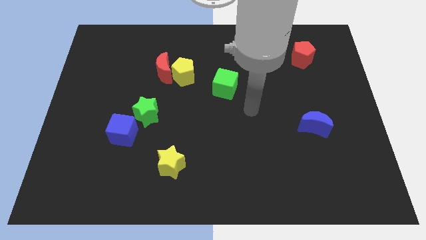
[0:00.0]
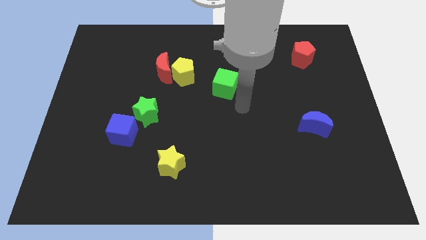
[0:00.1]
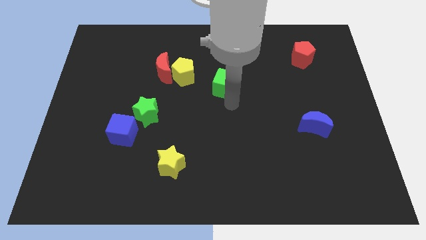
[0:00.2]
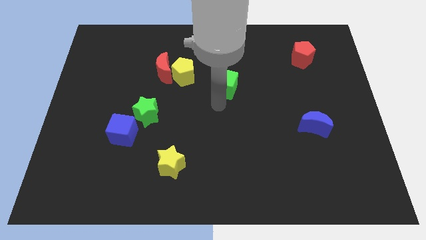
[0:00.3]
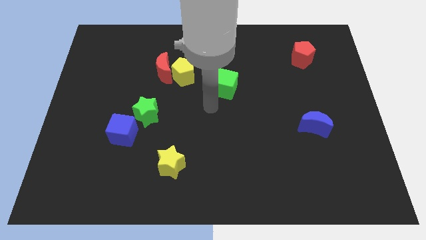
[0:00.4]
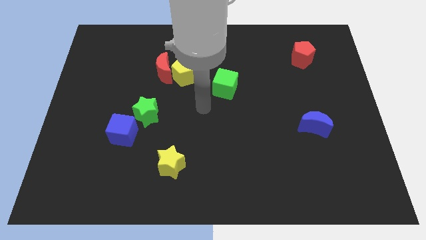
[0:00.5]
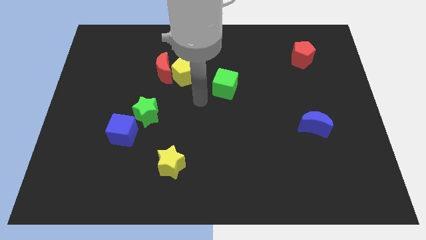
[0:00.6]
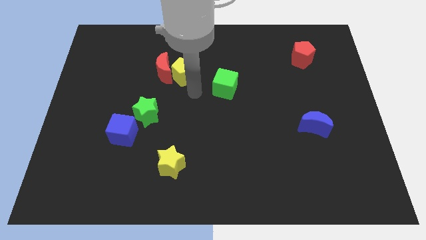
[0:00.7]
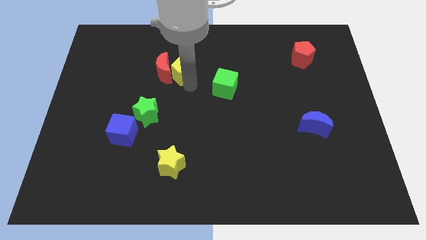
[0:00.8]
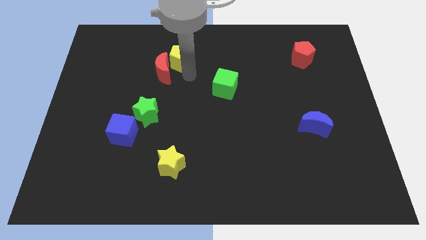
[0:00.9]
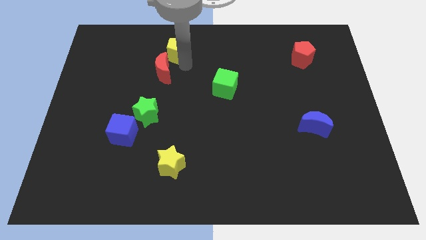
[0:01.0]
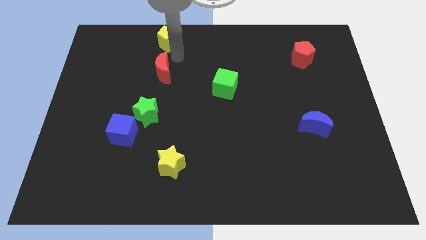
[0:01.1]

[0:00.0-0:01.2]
move the red moon away from the yellow pentagon

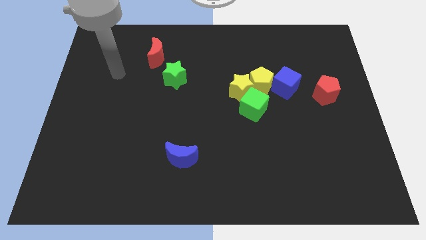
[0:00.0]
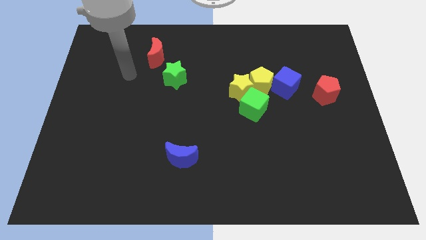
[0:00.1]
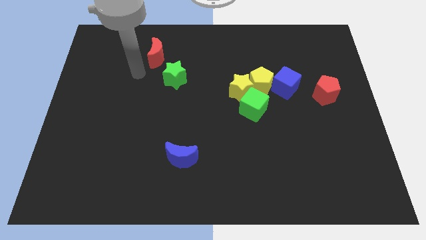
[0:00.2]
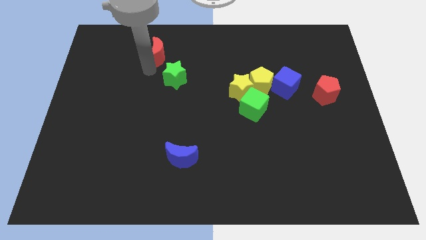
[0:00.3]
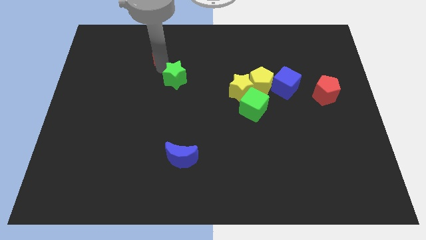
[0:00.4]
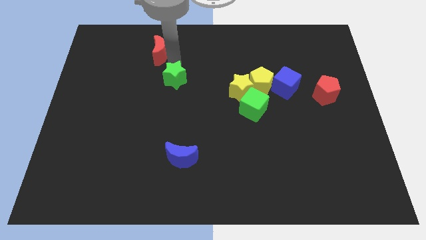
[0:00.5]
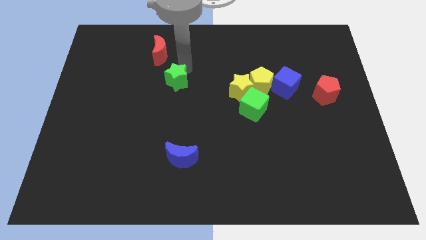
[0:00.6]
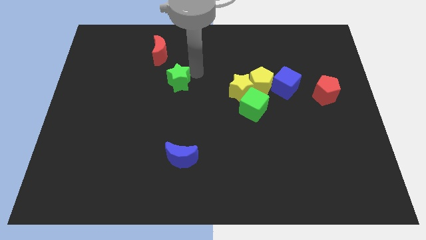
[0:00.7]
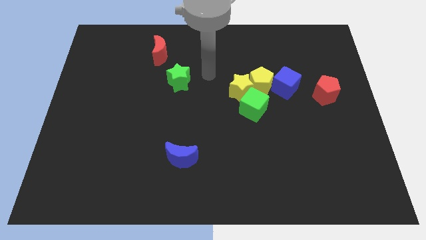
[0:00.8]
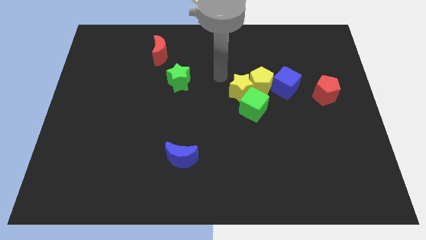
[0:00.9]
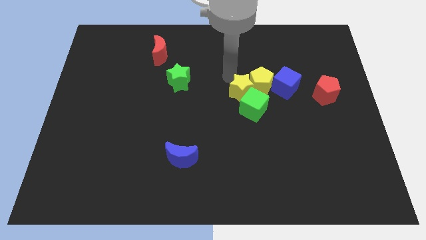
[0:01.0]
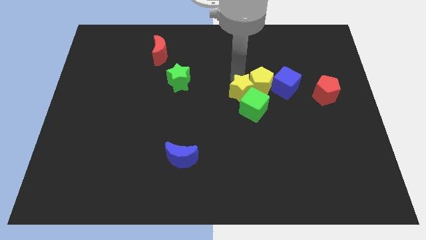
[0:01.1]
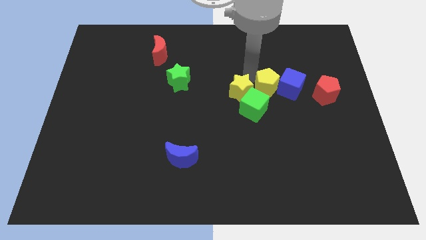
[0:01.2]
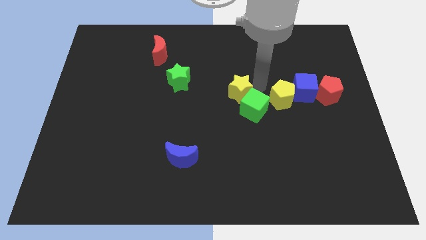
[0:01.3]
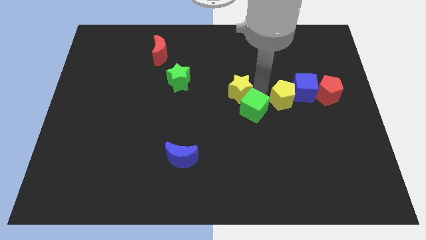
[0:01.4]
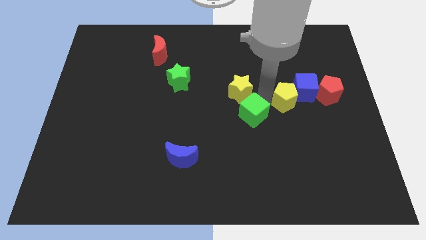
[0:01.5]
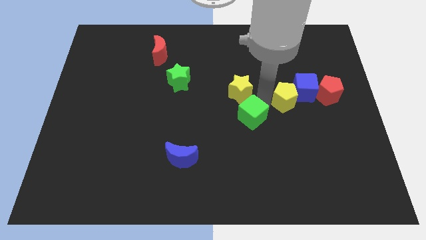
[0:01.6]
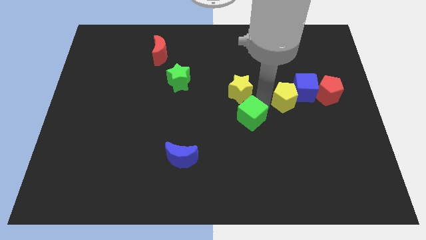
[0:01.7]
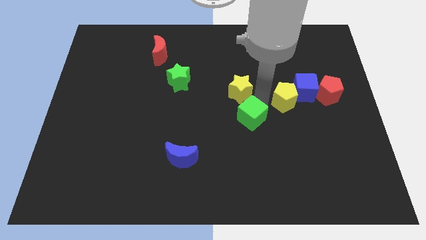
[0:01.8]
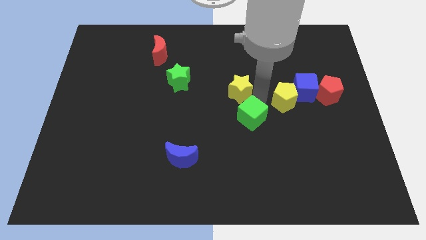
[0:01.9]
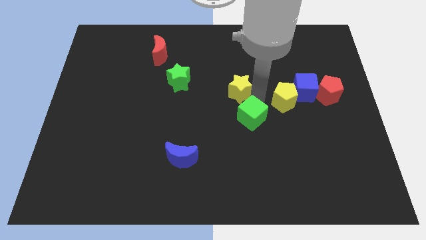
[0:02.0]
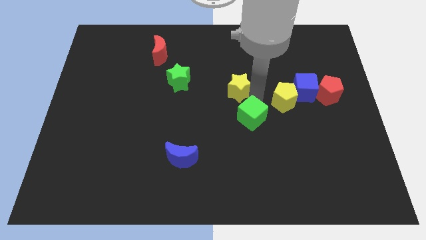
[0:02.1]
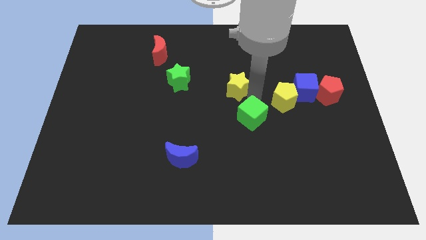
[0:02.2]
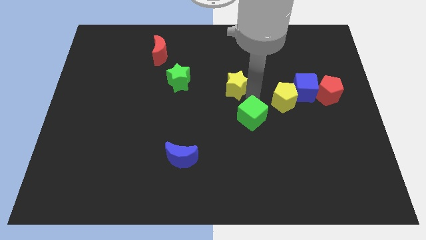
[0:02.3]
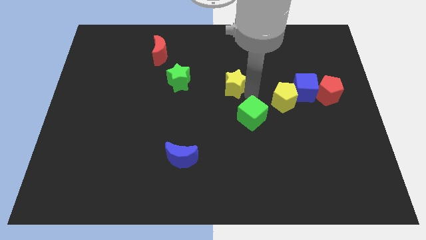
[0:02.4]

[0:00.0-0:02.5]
move the yellow star away from the yellow pentagon and green cube

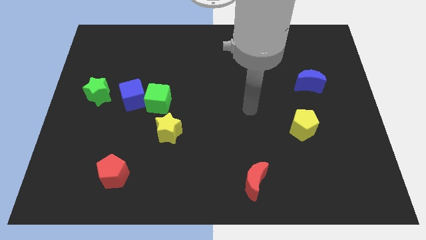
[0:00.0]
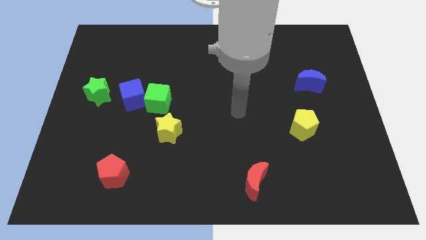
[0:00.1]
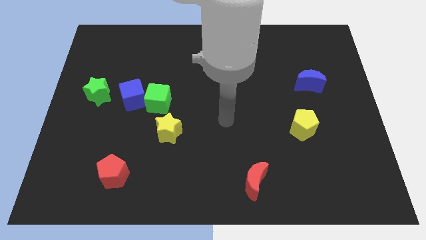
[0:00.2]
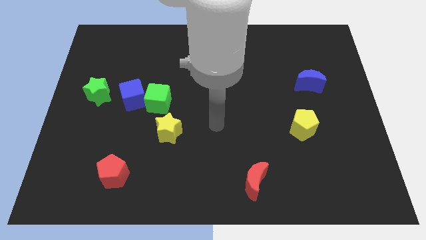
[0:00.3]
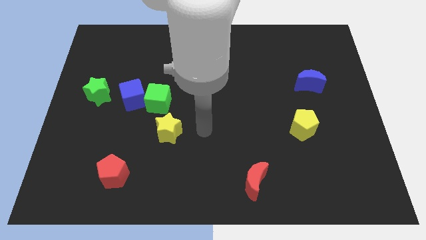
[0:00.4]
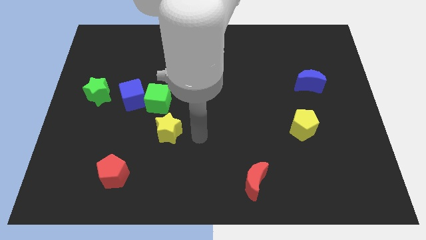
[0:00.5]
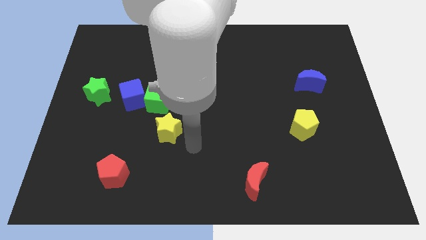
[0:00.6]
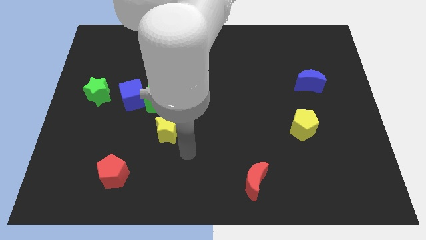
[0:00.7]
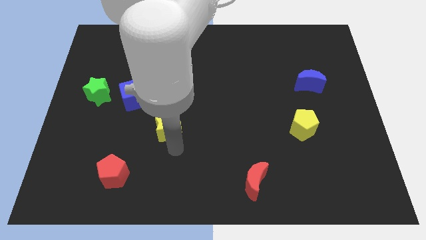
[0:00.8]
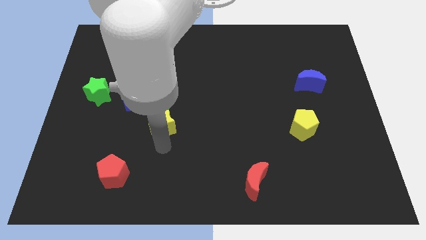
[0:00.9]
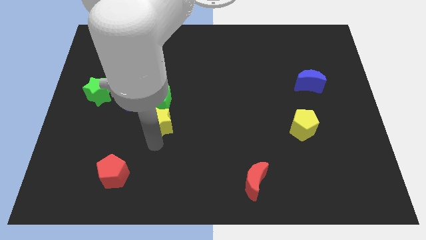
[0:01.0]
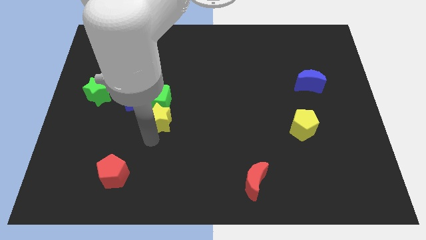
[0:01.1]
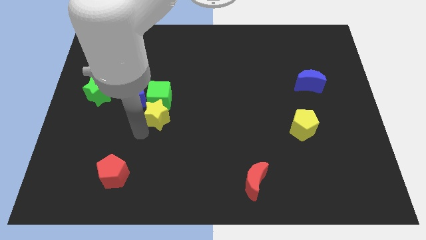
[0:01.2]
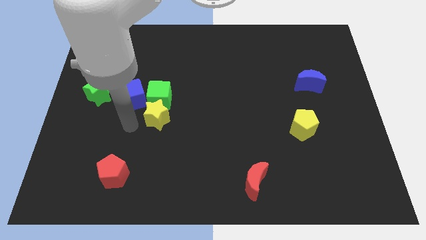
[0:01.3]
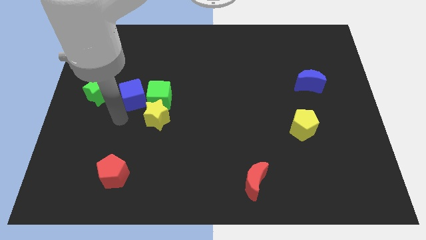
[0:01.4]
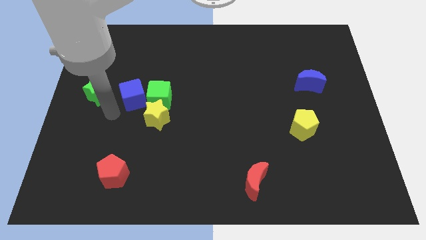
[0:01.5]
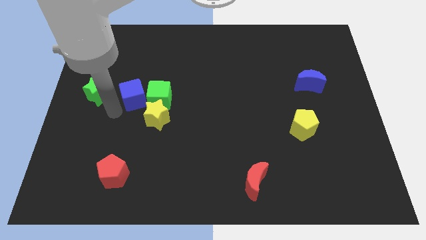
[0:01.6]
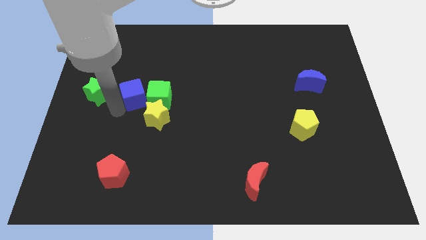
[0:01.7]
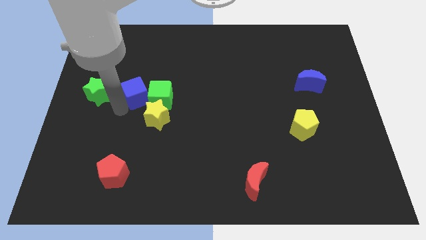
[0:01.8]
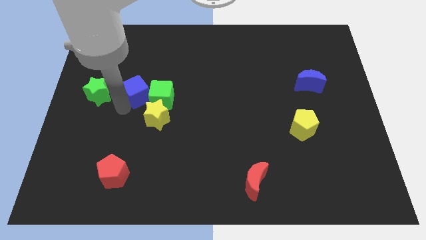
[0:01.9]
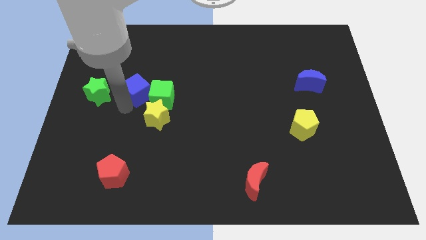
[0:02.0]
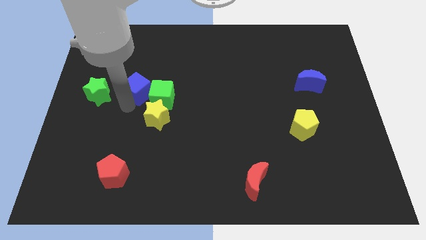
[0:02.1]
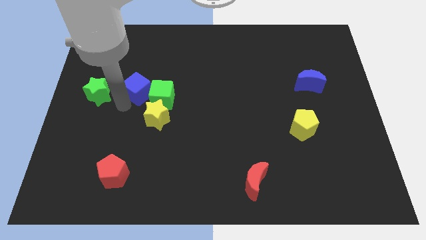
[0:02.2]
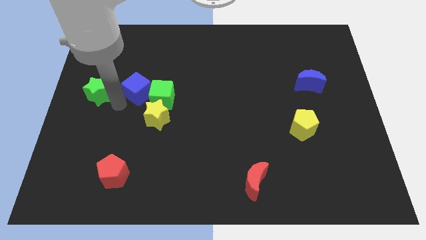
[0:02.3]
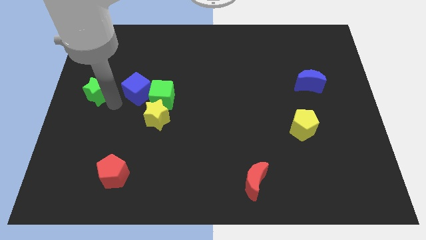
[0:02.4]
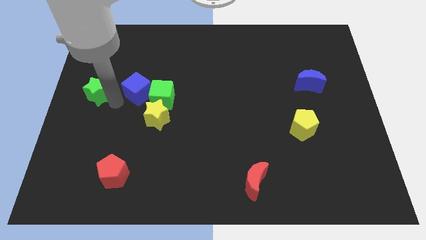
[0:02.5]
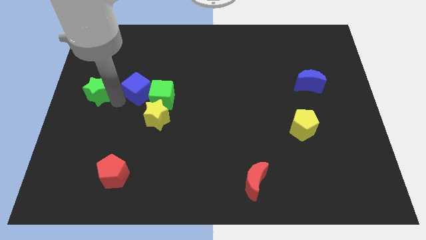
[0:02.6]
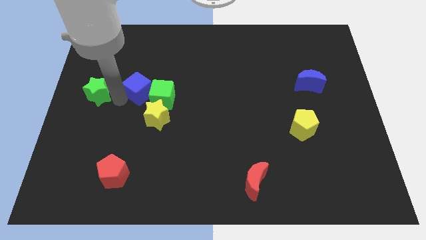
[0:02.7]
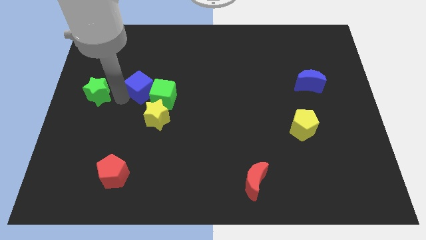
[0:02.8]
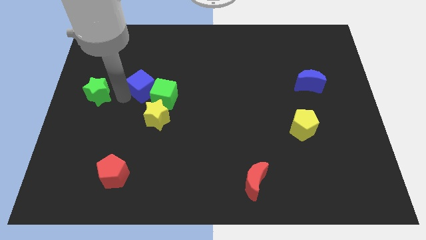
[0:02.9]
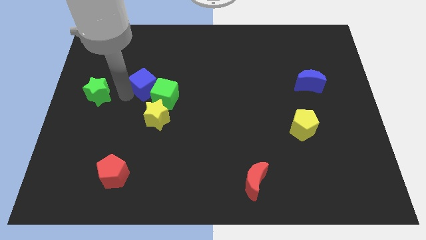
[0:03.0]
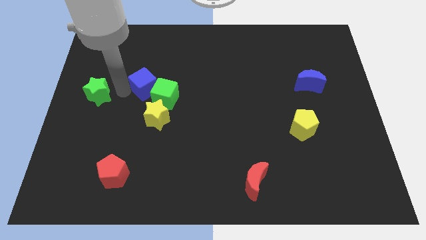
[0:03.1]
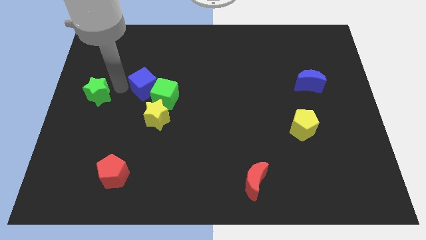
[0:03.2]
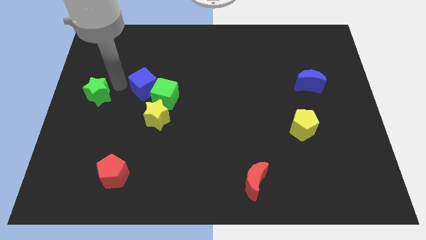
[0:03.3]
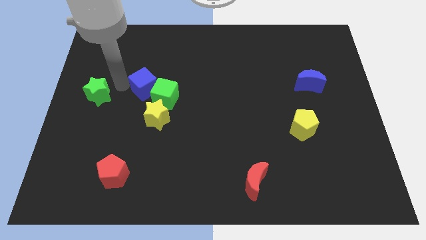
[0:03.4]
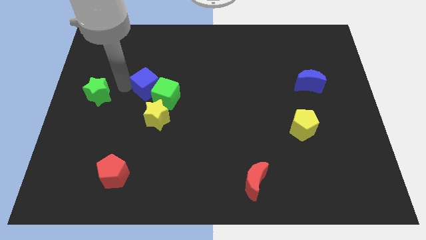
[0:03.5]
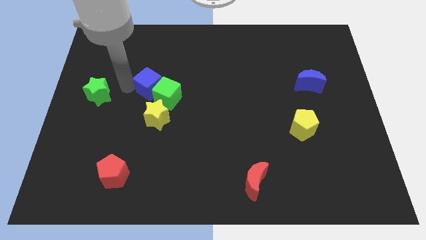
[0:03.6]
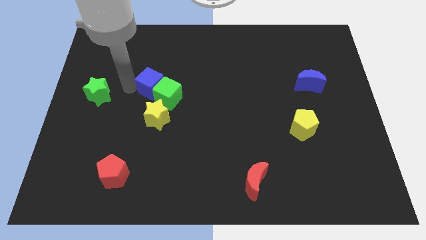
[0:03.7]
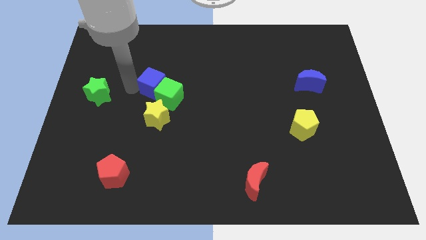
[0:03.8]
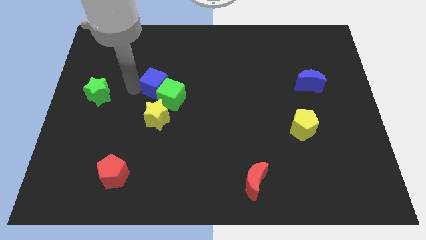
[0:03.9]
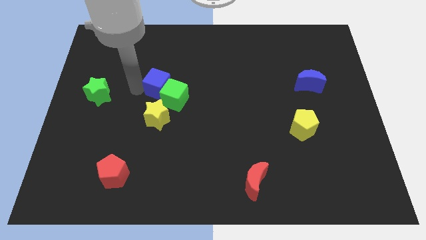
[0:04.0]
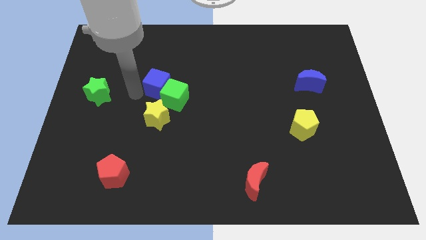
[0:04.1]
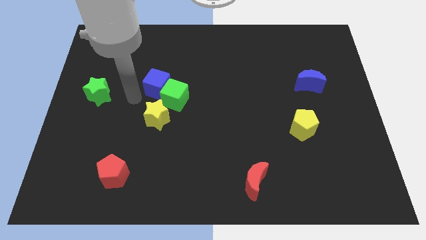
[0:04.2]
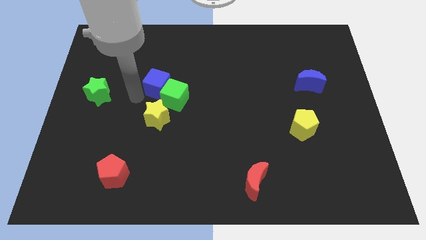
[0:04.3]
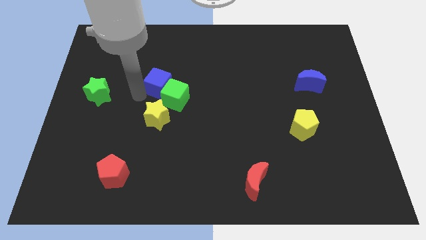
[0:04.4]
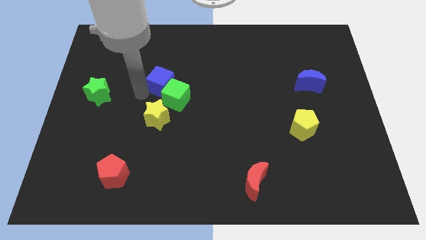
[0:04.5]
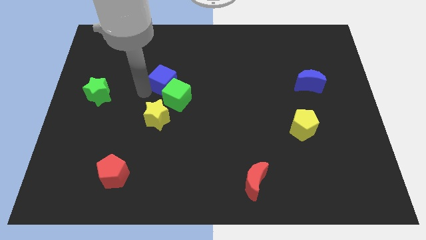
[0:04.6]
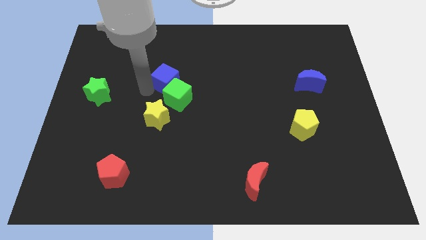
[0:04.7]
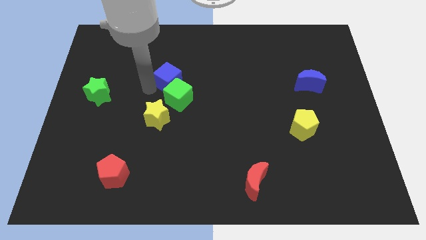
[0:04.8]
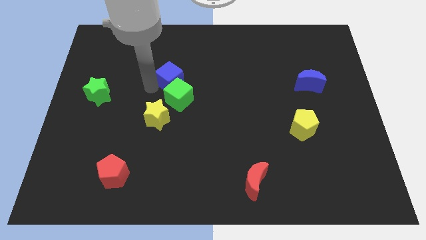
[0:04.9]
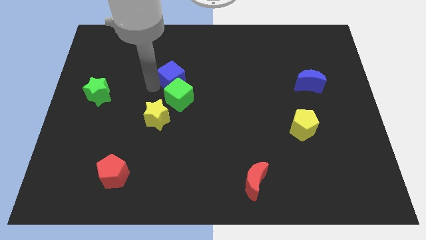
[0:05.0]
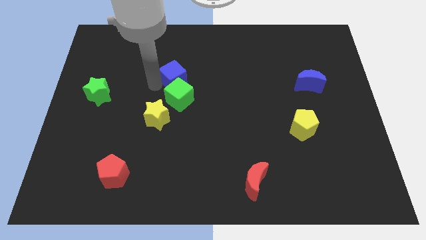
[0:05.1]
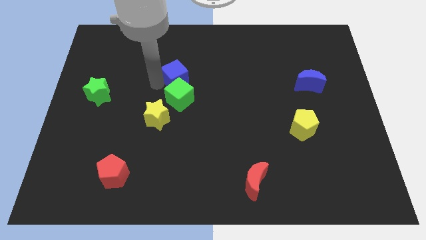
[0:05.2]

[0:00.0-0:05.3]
pull the blue cube apart from the green cube and green star

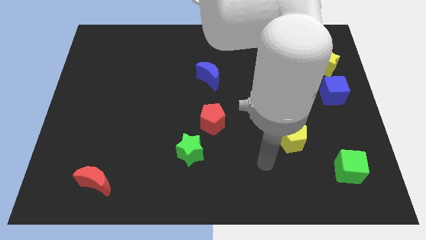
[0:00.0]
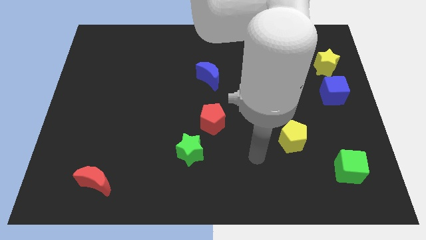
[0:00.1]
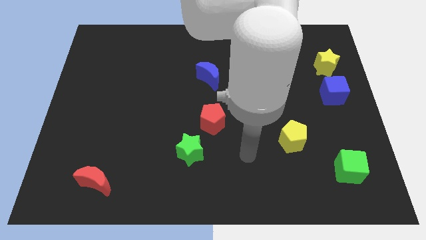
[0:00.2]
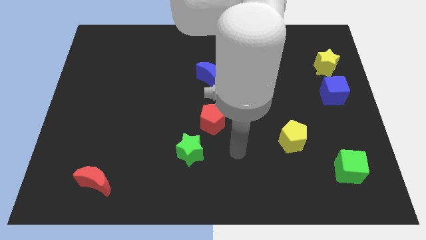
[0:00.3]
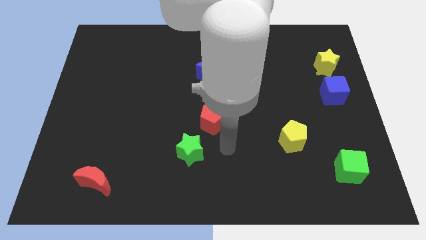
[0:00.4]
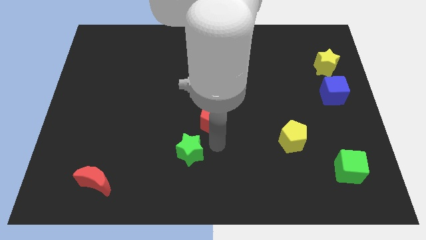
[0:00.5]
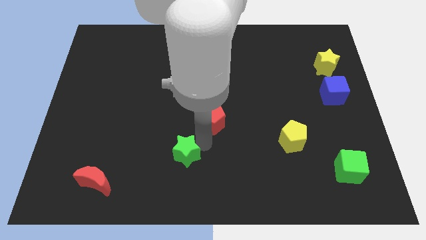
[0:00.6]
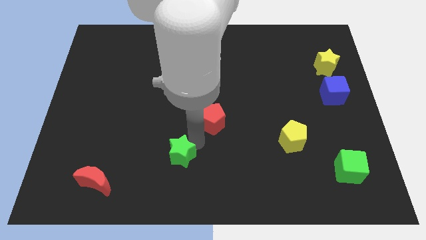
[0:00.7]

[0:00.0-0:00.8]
pull the red pentagon apart from the green star
